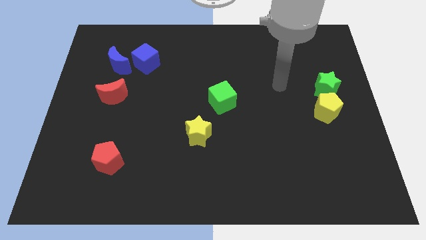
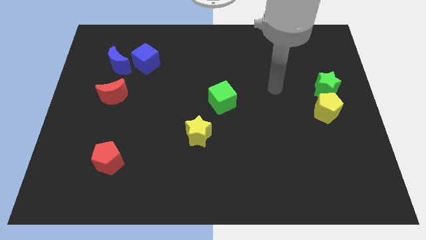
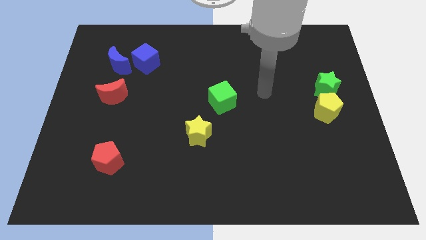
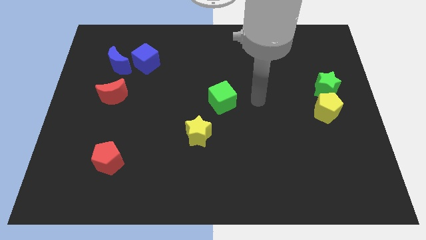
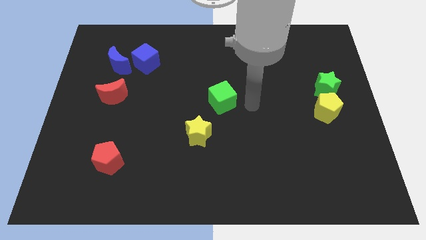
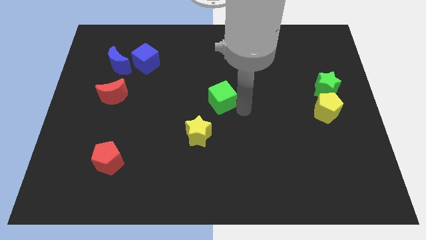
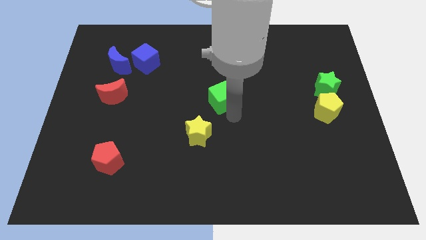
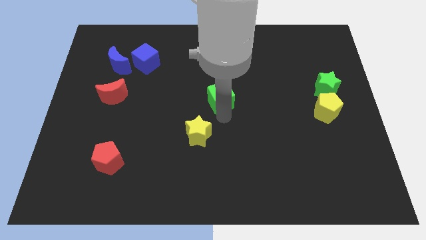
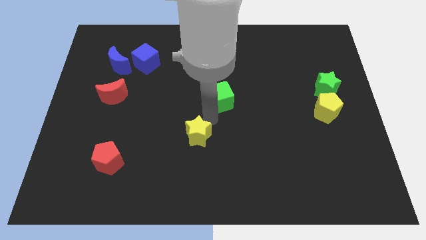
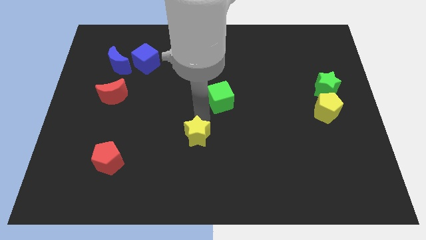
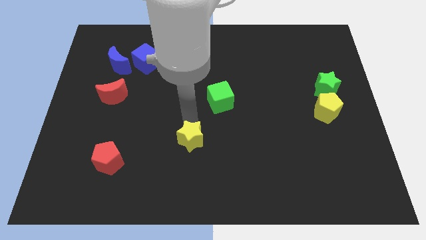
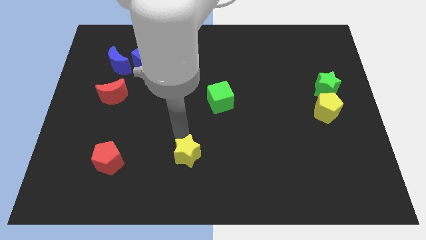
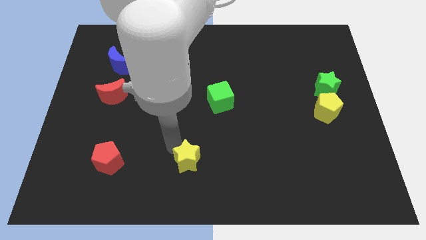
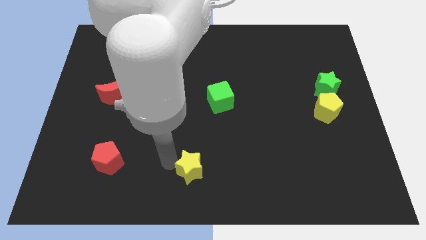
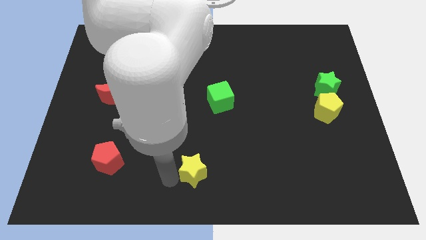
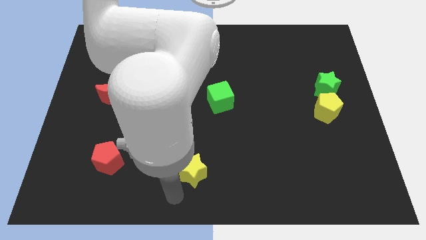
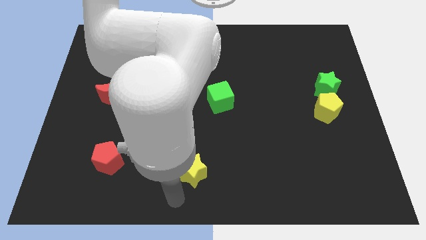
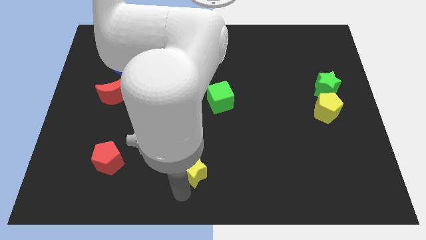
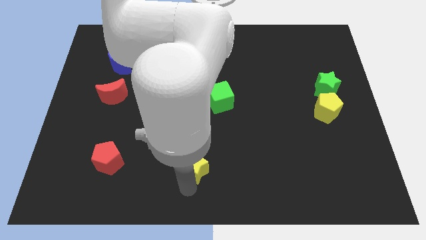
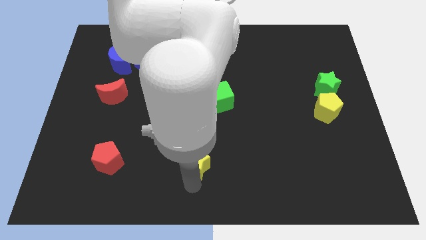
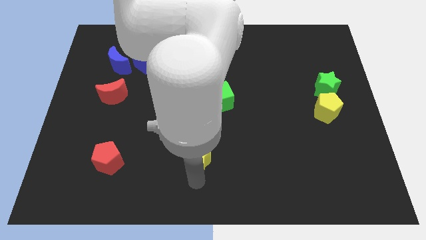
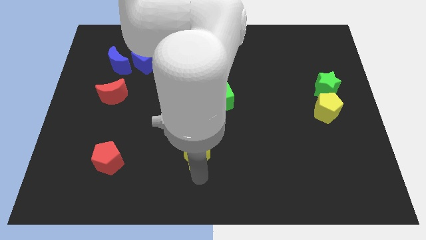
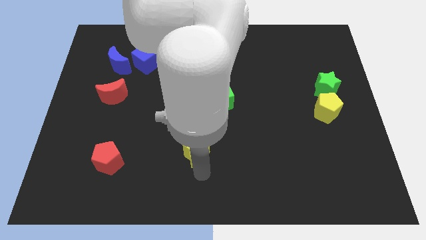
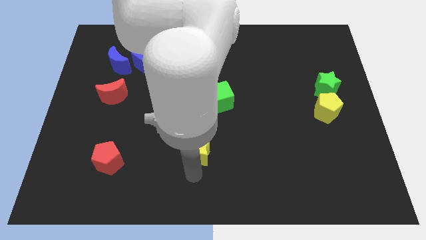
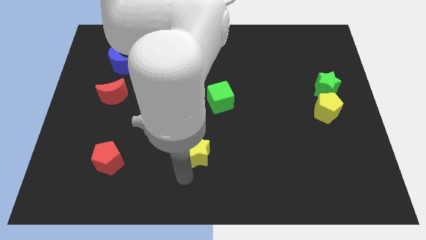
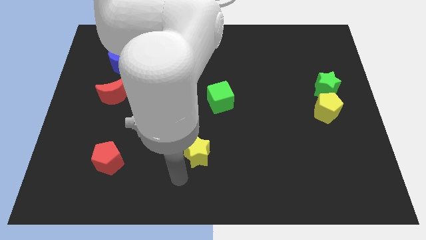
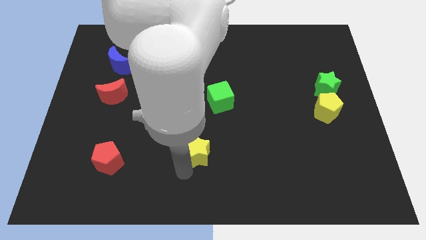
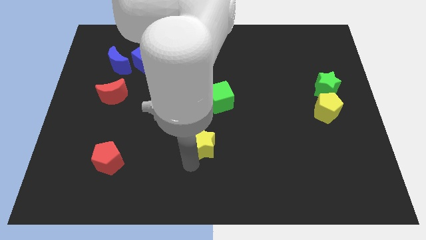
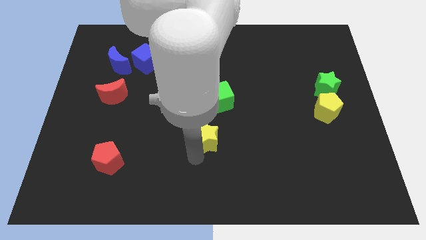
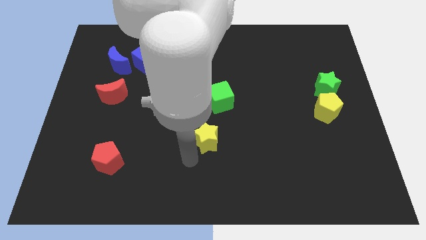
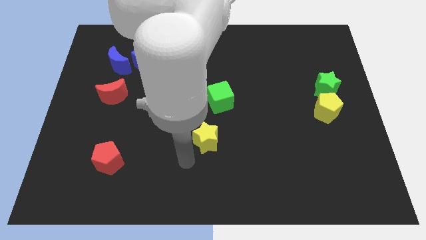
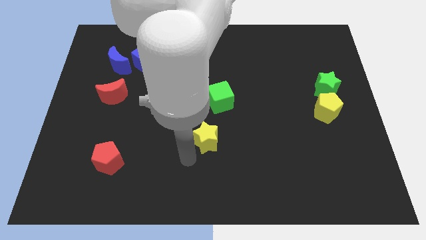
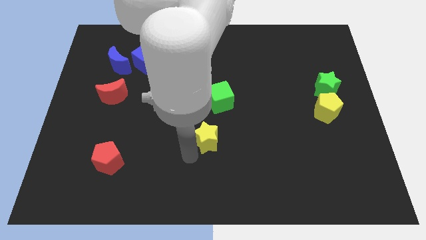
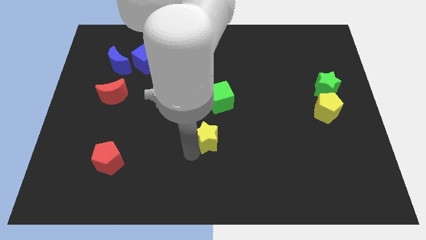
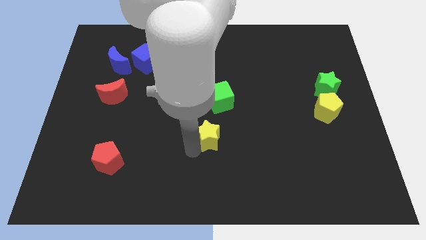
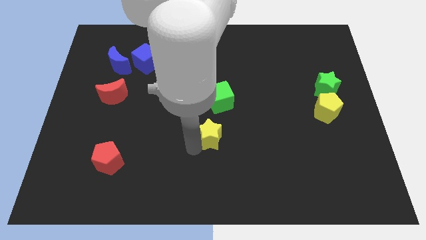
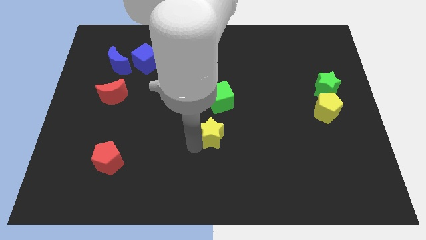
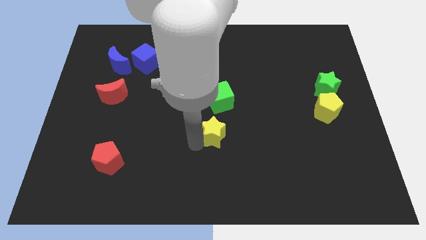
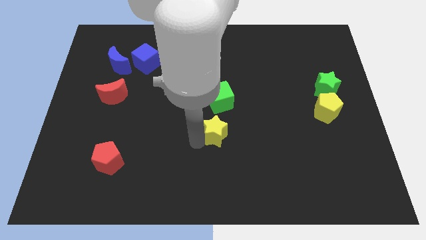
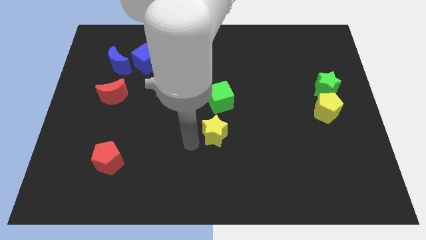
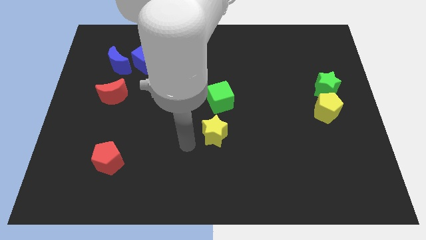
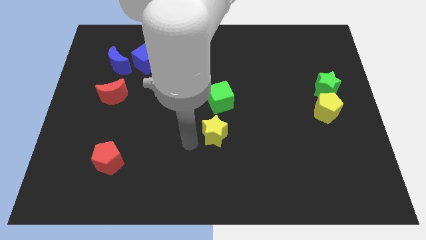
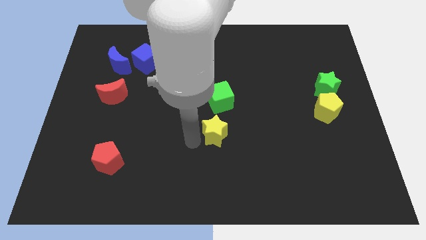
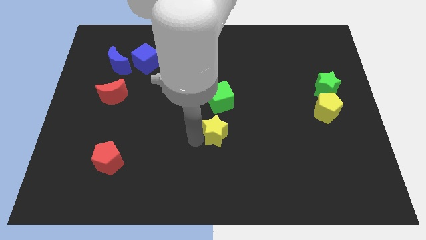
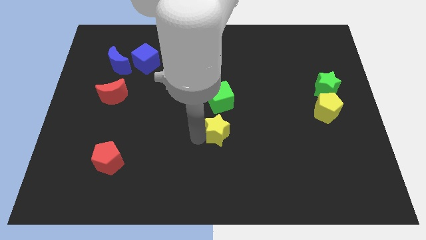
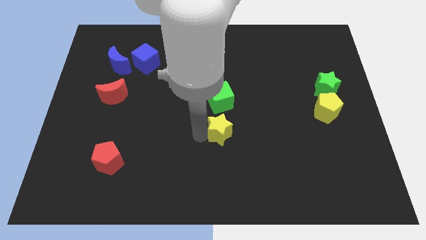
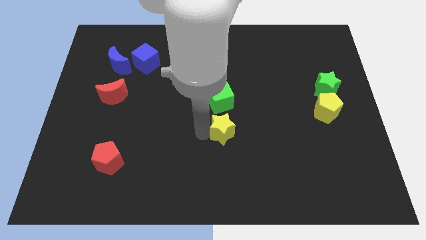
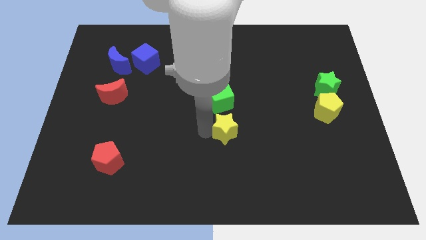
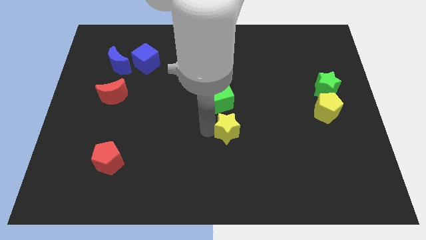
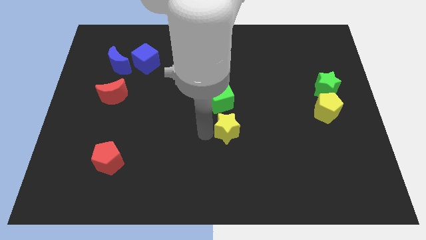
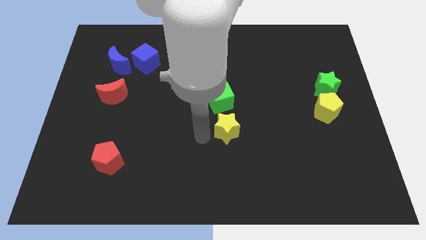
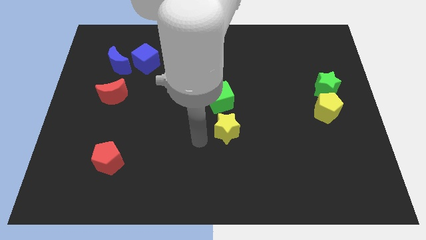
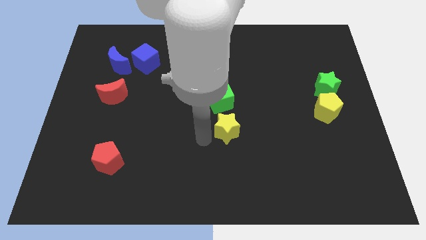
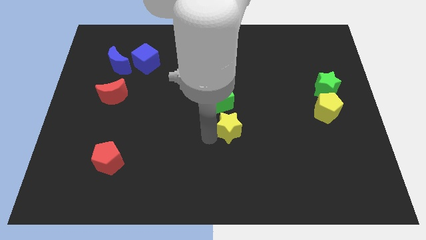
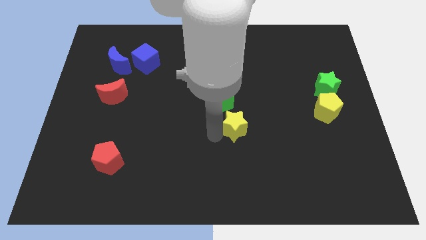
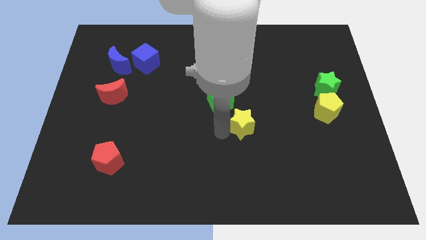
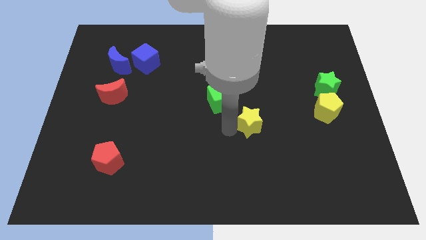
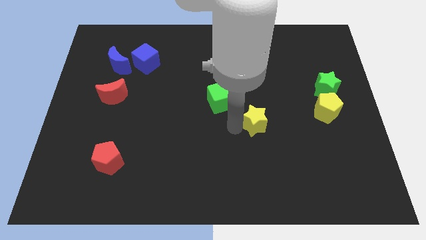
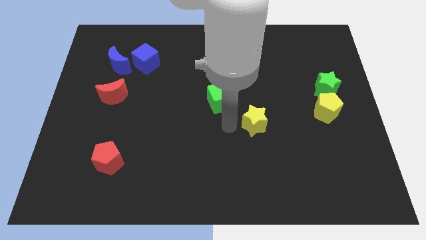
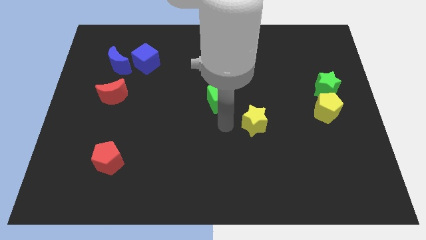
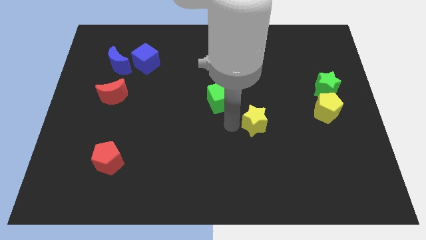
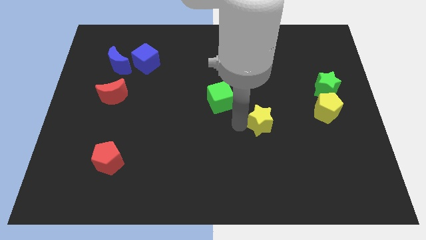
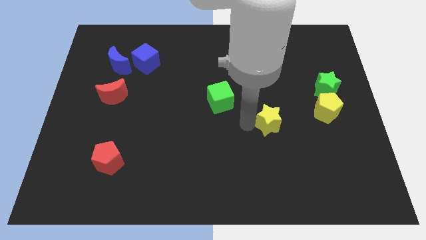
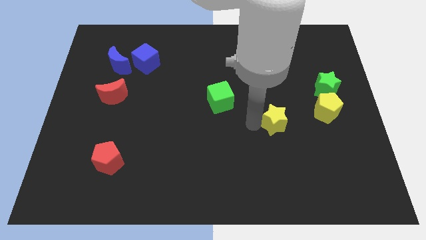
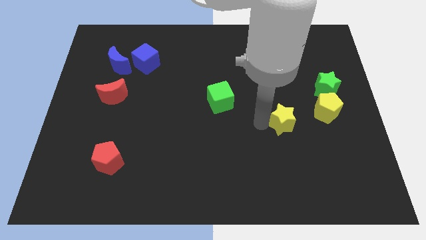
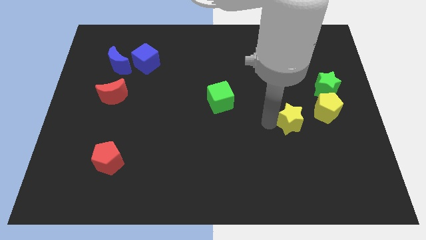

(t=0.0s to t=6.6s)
move the yellow star right

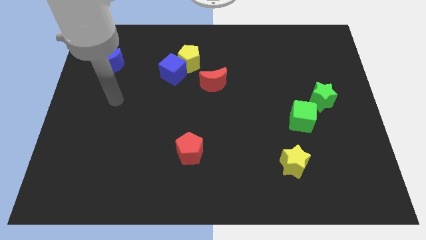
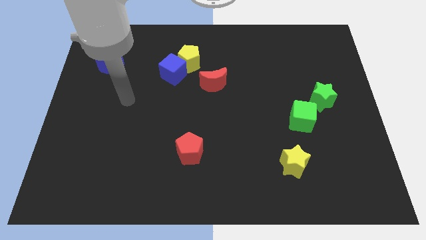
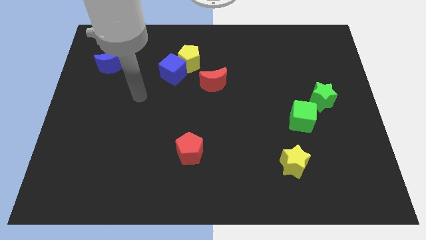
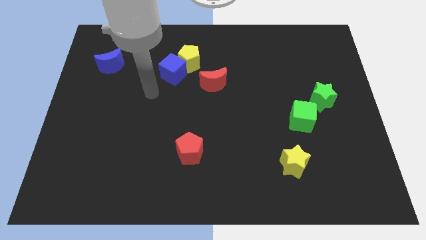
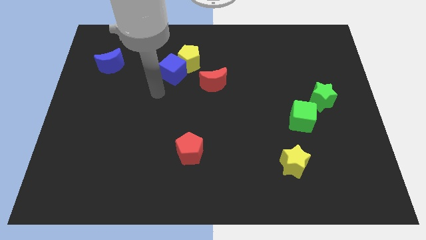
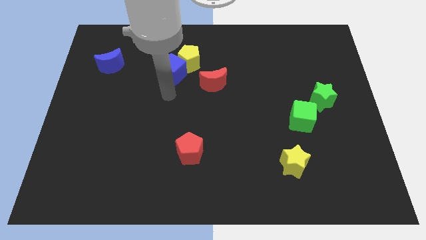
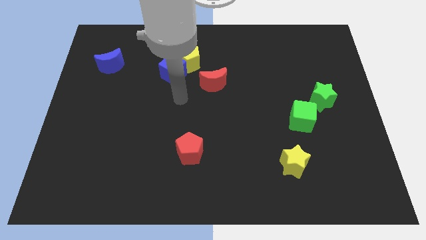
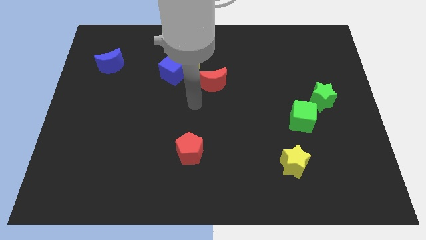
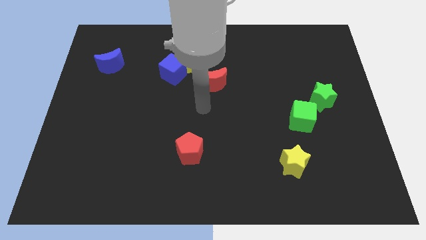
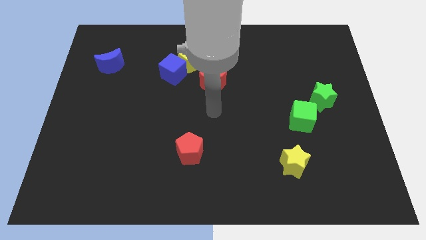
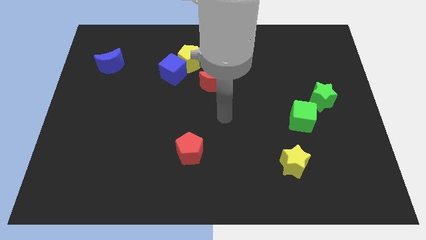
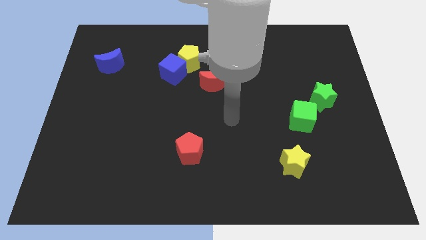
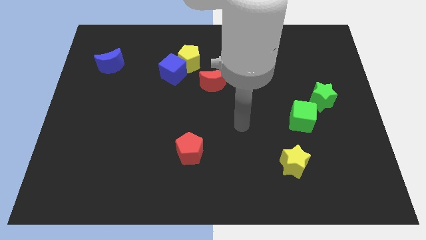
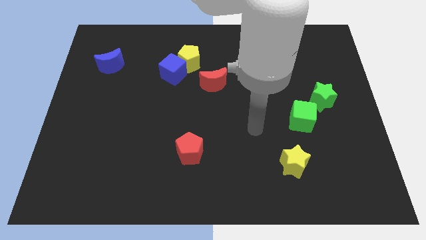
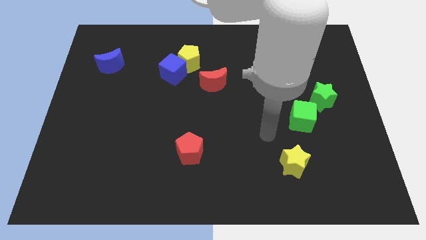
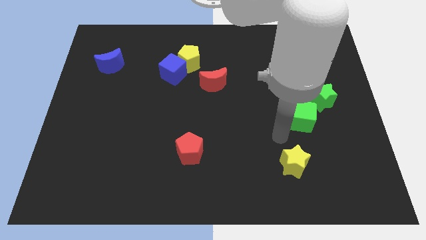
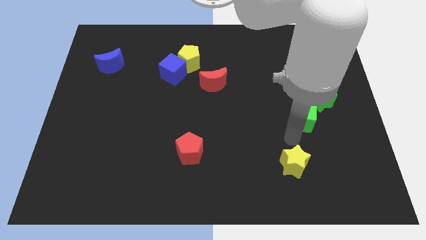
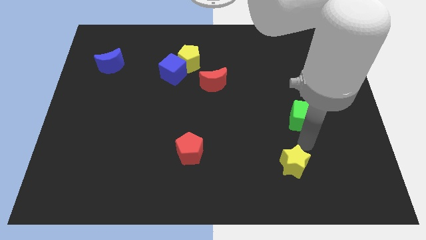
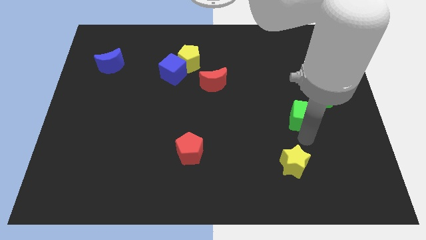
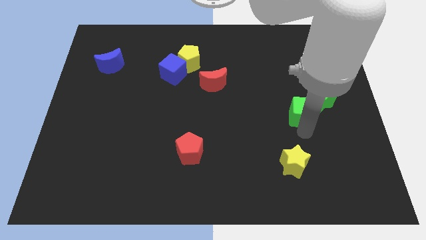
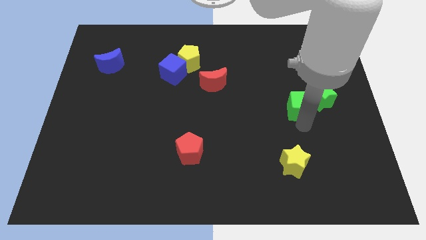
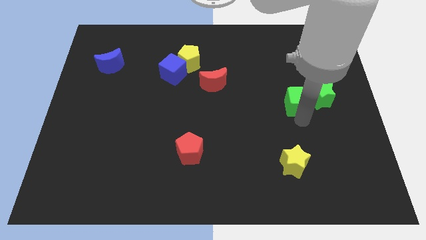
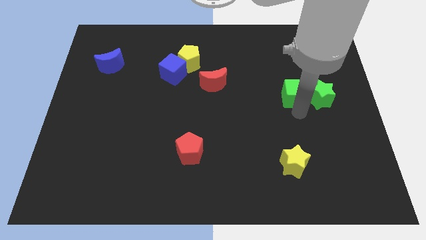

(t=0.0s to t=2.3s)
slide the green cube a bit up
